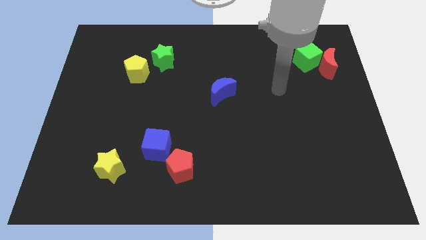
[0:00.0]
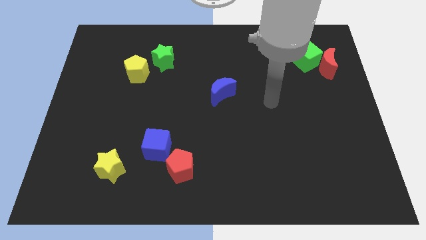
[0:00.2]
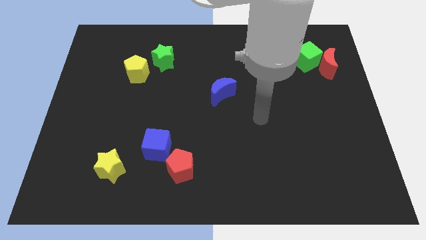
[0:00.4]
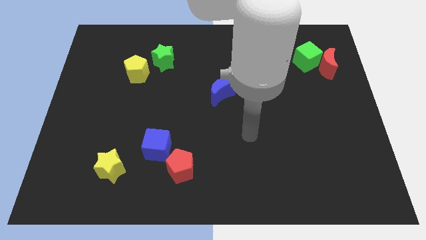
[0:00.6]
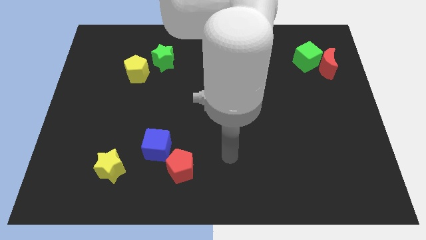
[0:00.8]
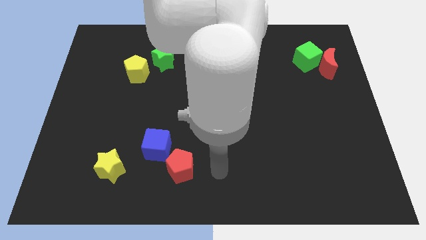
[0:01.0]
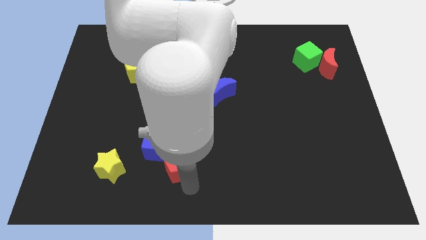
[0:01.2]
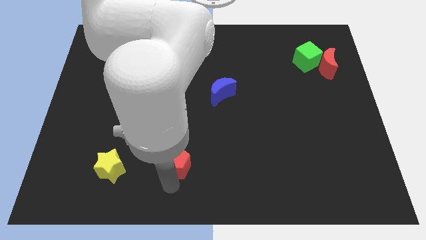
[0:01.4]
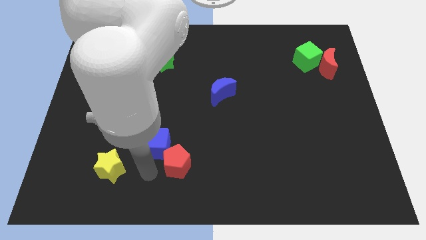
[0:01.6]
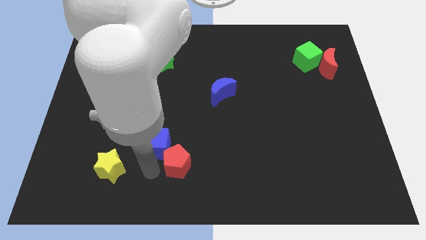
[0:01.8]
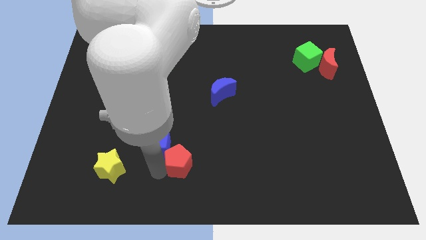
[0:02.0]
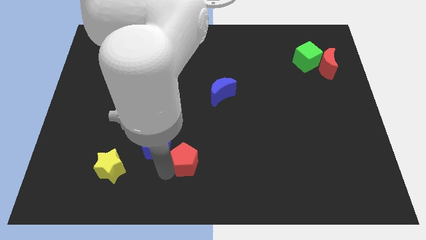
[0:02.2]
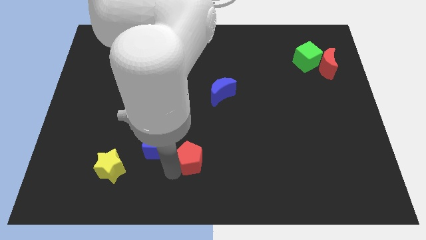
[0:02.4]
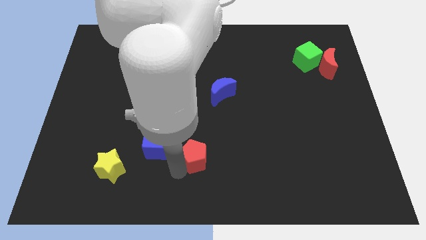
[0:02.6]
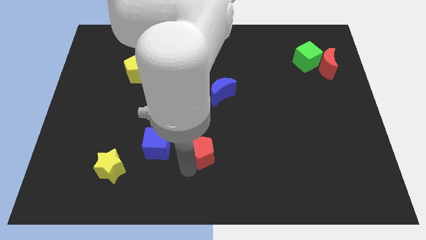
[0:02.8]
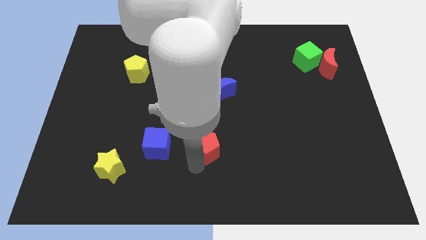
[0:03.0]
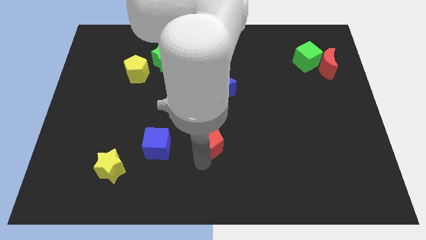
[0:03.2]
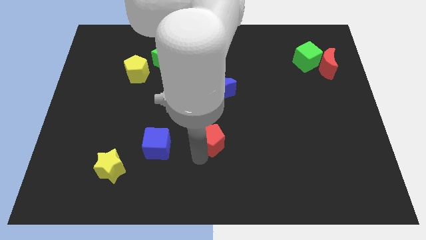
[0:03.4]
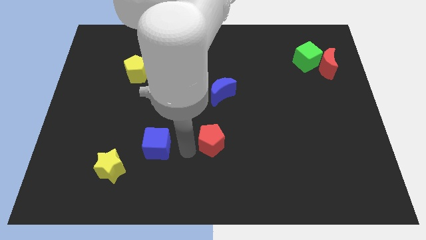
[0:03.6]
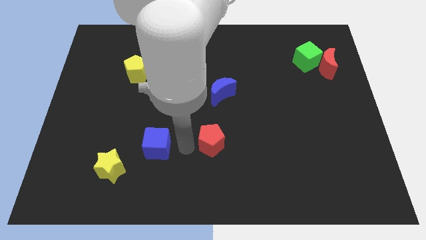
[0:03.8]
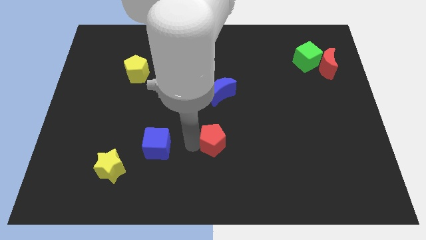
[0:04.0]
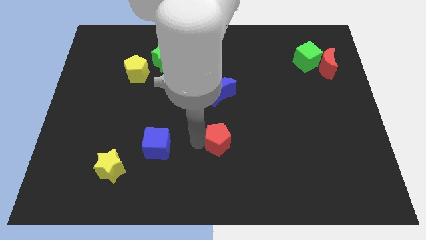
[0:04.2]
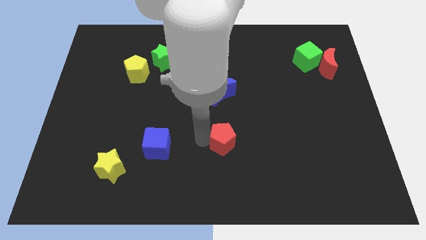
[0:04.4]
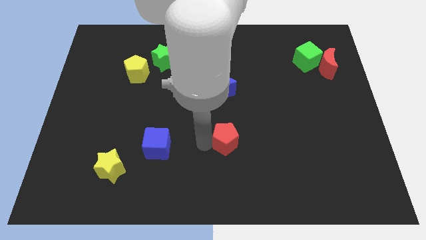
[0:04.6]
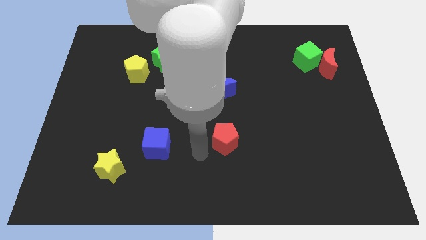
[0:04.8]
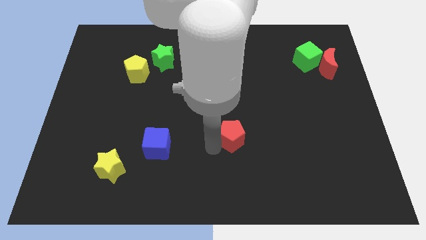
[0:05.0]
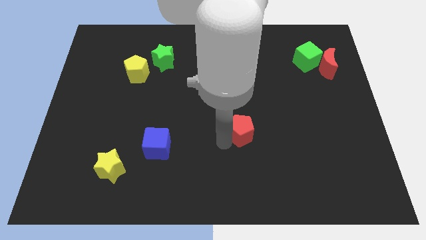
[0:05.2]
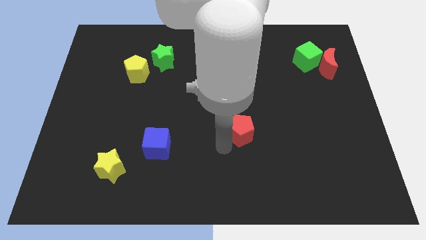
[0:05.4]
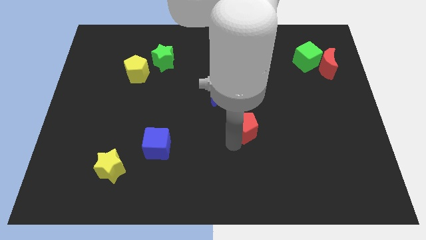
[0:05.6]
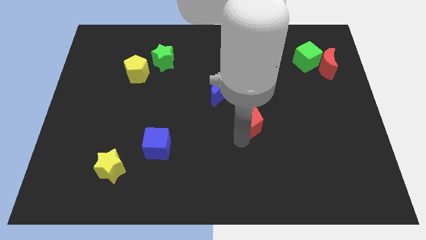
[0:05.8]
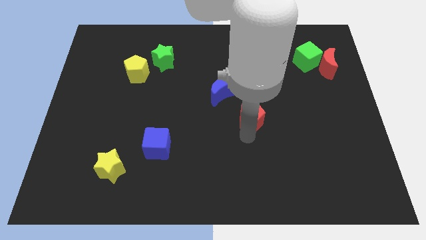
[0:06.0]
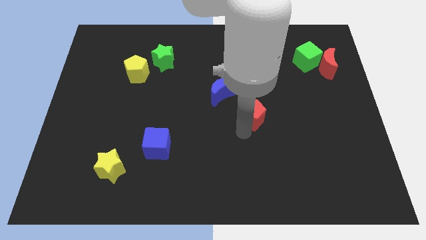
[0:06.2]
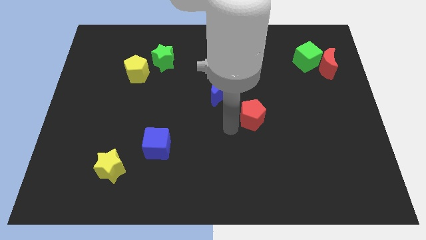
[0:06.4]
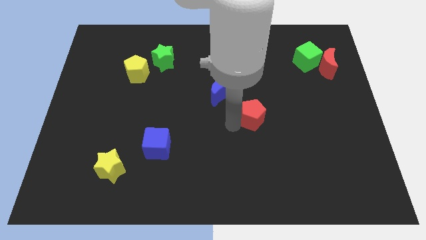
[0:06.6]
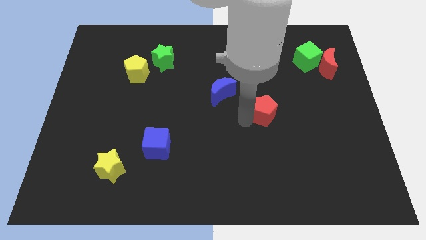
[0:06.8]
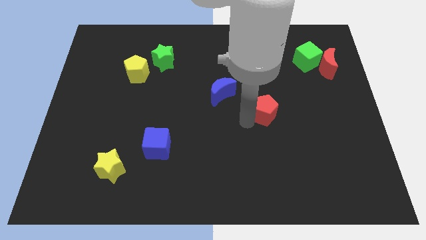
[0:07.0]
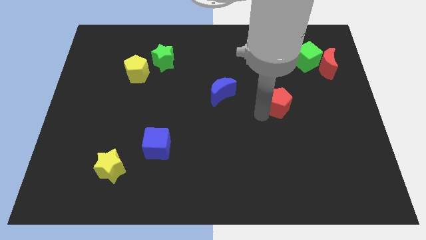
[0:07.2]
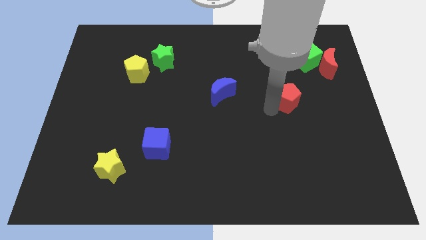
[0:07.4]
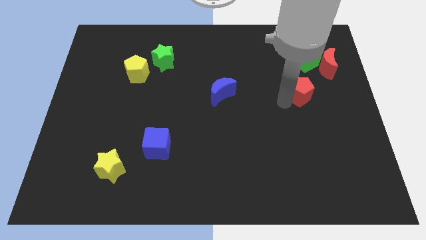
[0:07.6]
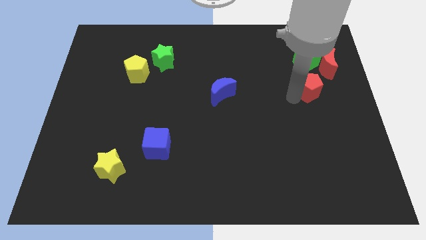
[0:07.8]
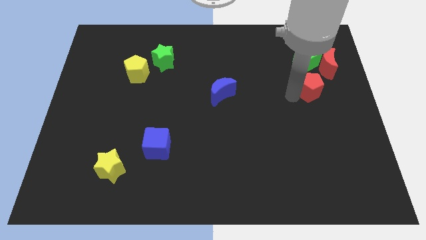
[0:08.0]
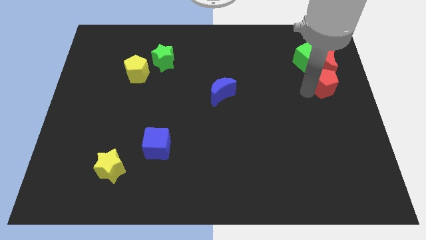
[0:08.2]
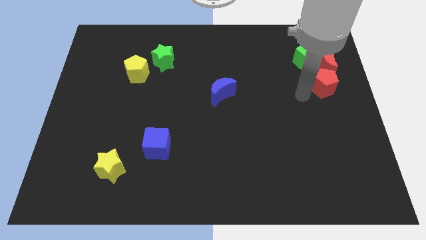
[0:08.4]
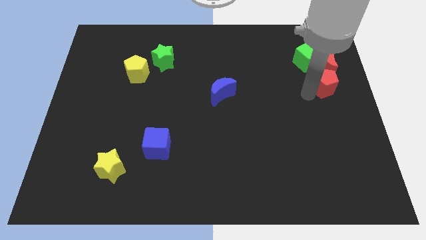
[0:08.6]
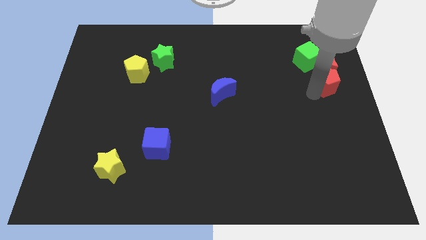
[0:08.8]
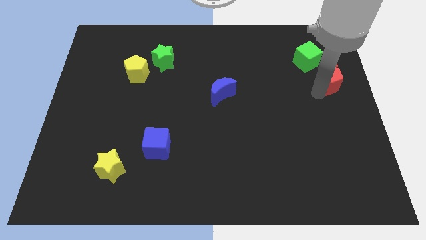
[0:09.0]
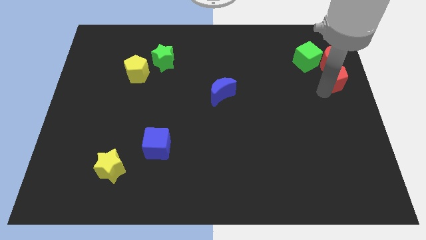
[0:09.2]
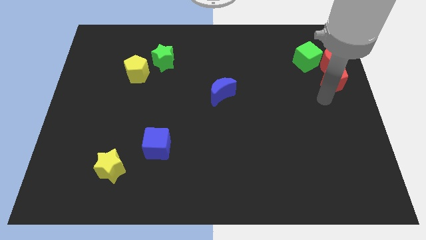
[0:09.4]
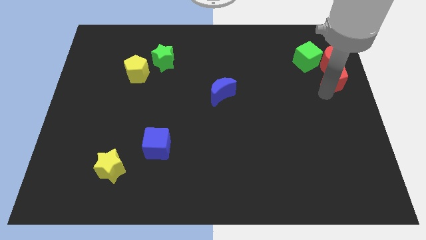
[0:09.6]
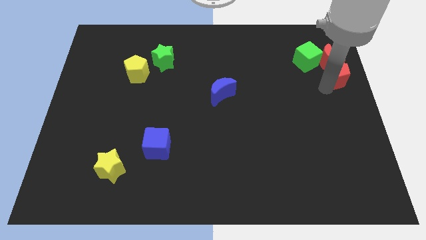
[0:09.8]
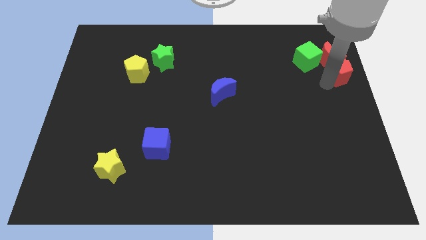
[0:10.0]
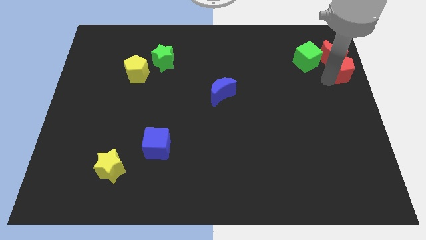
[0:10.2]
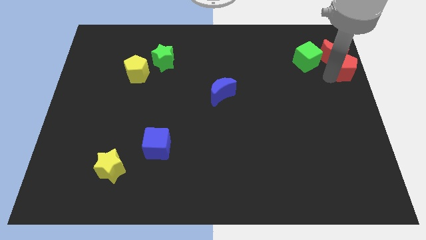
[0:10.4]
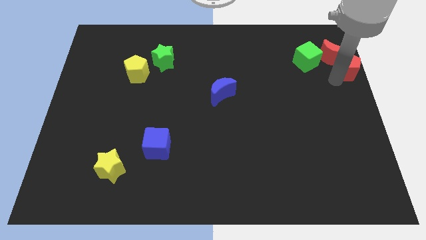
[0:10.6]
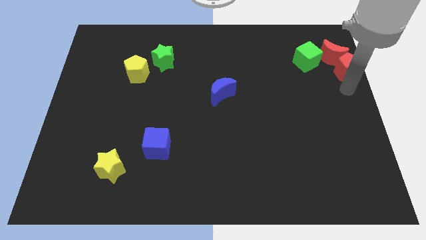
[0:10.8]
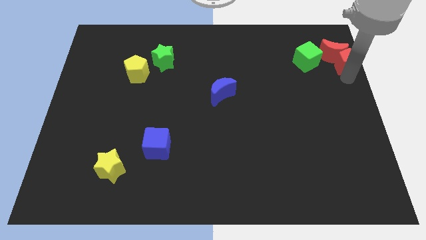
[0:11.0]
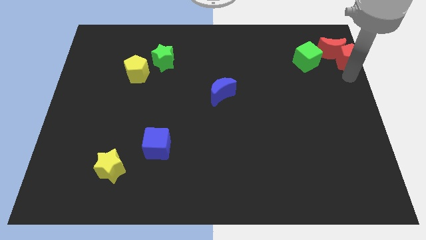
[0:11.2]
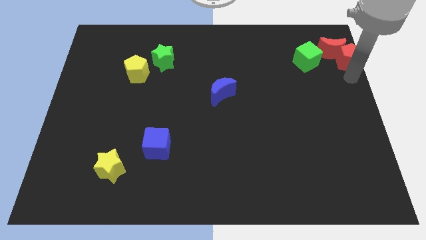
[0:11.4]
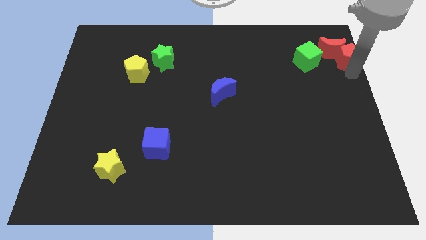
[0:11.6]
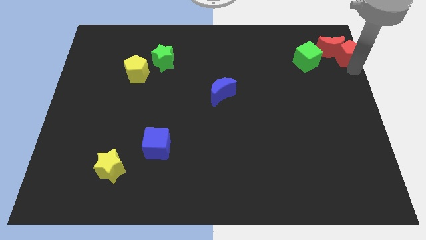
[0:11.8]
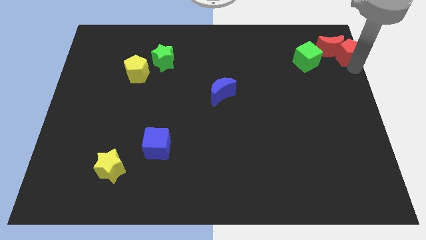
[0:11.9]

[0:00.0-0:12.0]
move the red pentagon to the top right corner

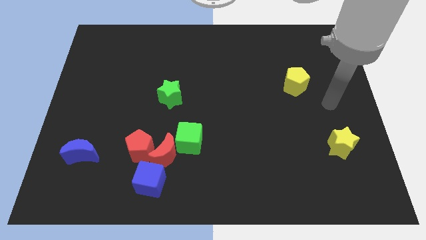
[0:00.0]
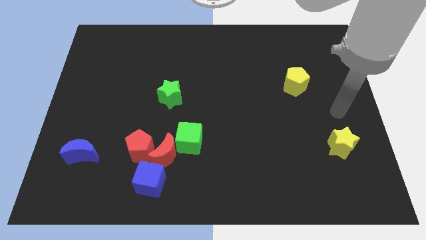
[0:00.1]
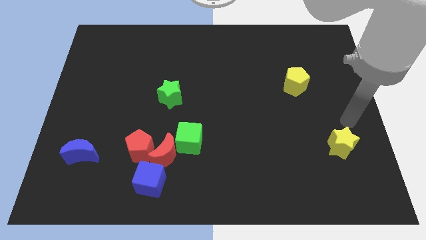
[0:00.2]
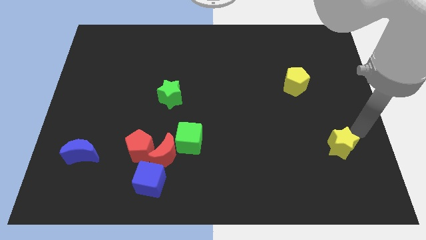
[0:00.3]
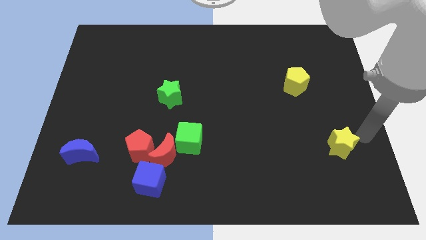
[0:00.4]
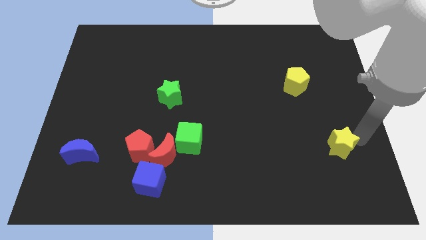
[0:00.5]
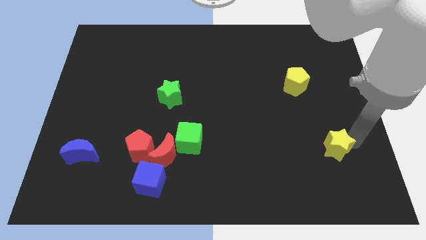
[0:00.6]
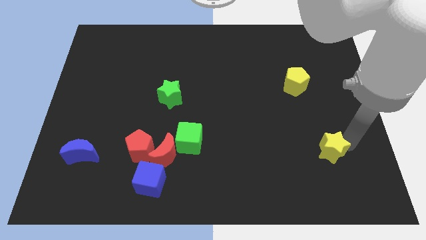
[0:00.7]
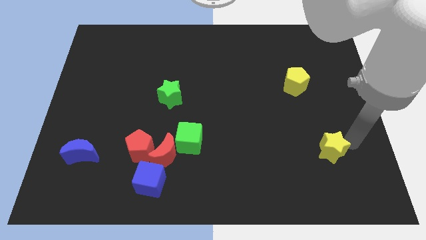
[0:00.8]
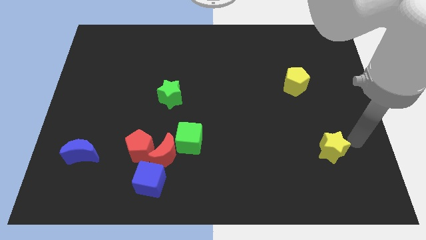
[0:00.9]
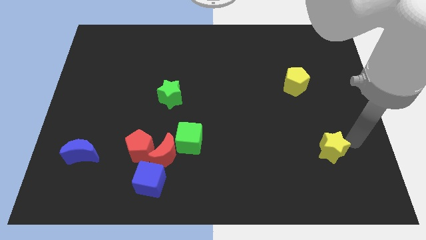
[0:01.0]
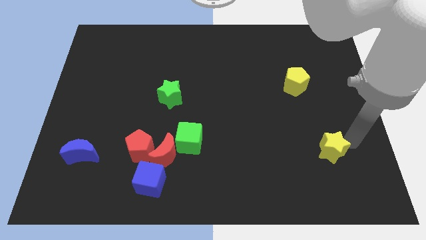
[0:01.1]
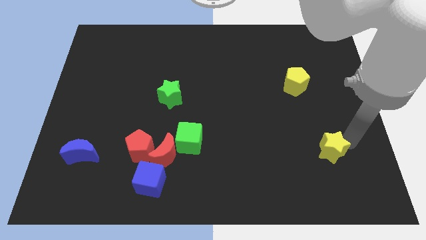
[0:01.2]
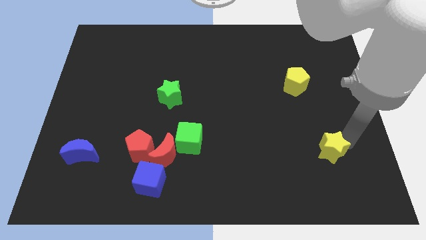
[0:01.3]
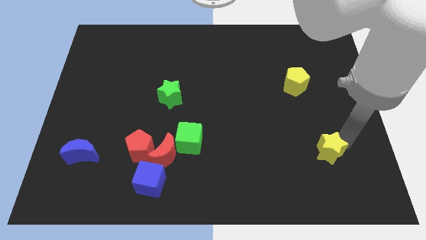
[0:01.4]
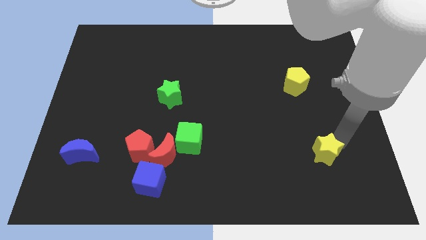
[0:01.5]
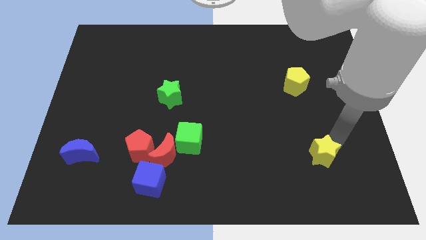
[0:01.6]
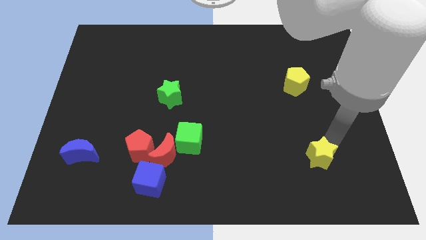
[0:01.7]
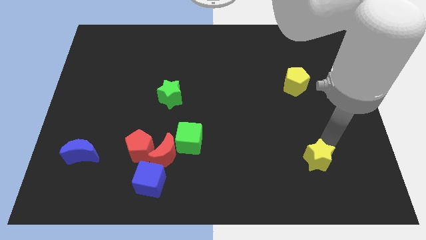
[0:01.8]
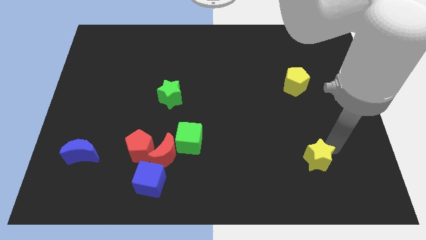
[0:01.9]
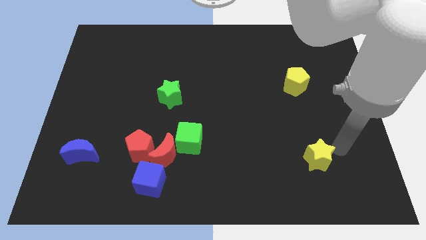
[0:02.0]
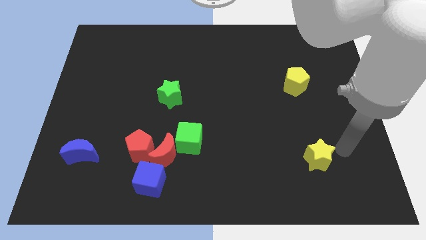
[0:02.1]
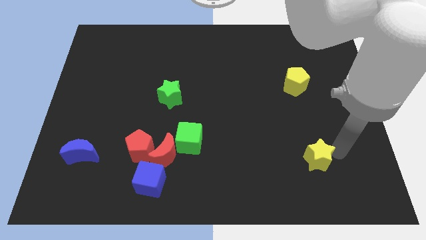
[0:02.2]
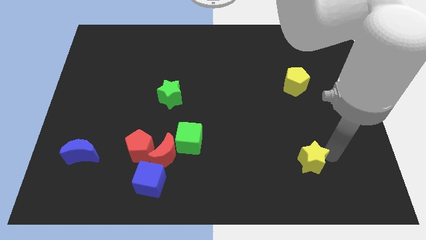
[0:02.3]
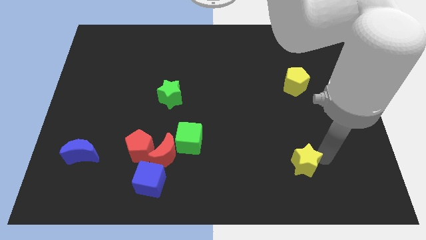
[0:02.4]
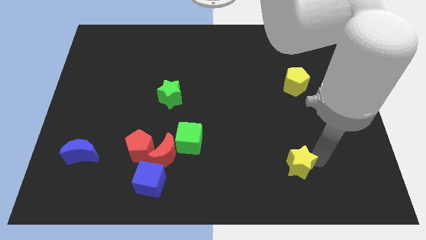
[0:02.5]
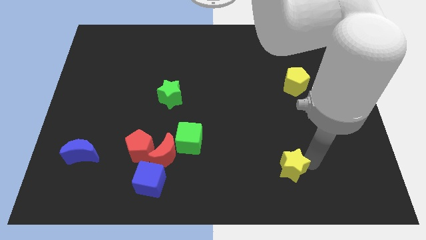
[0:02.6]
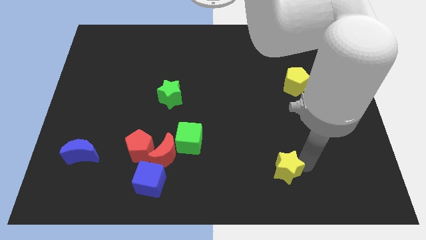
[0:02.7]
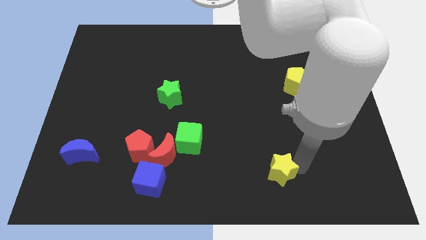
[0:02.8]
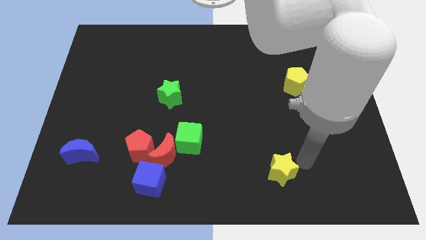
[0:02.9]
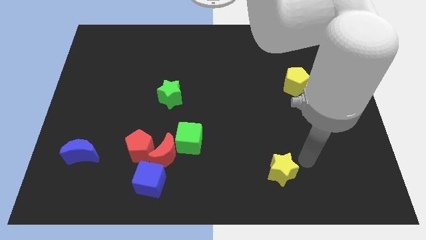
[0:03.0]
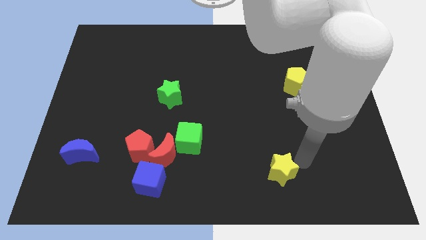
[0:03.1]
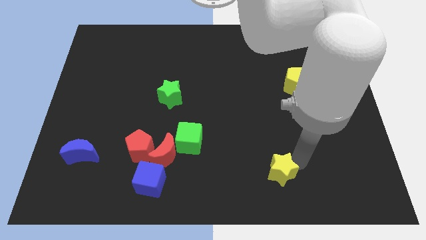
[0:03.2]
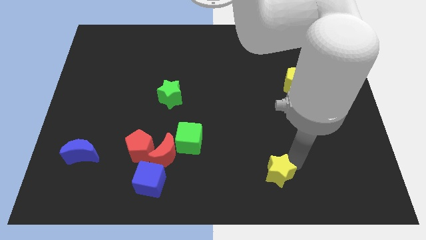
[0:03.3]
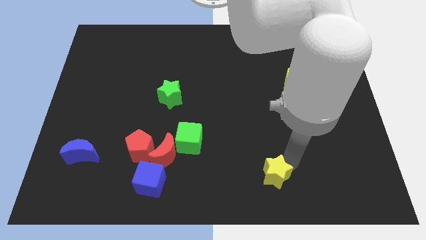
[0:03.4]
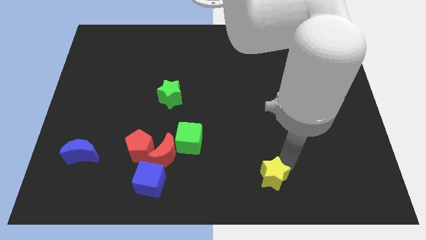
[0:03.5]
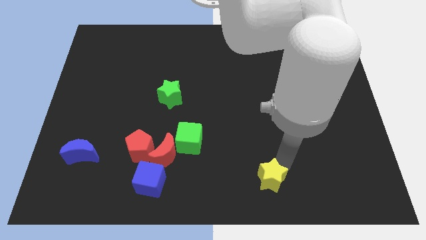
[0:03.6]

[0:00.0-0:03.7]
push the yellow star to the bottom
